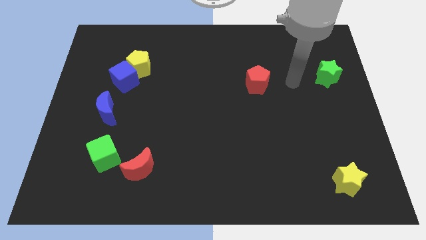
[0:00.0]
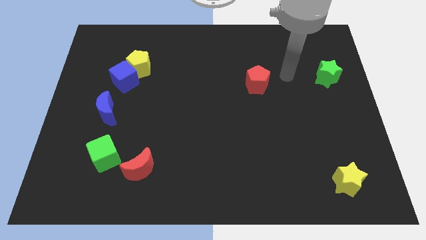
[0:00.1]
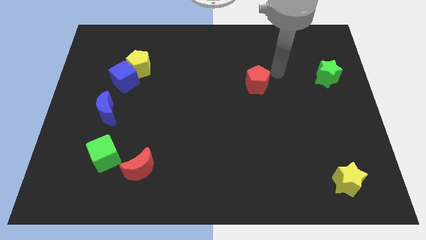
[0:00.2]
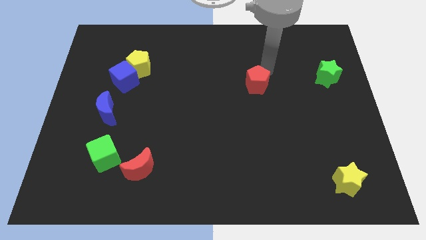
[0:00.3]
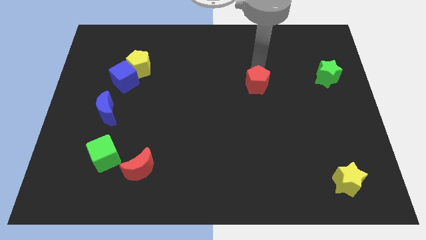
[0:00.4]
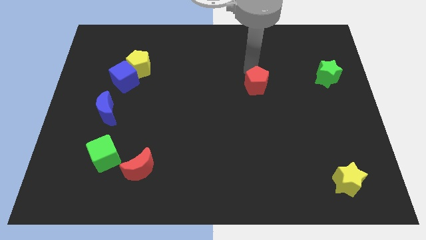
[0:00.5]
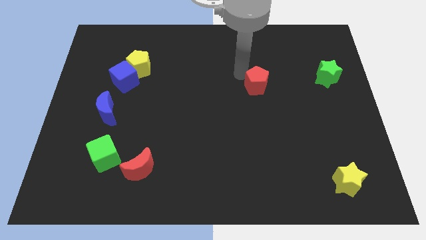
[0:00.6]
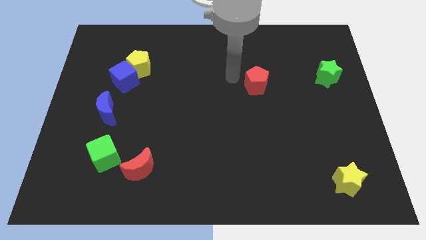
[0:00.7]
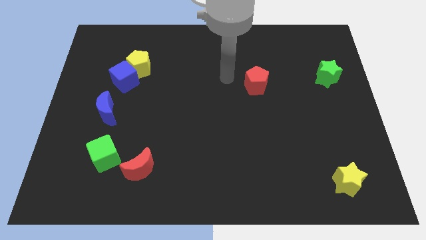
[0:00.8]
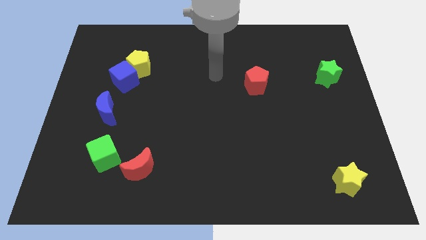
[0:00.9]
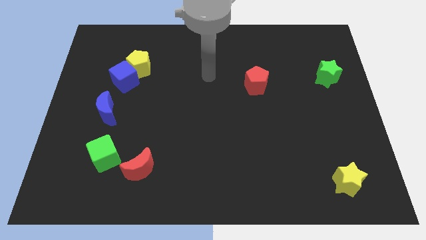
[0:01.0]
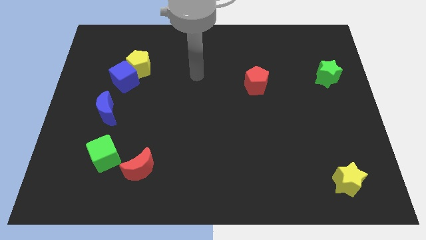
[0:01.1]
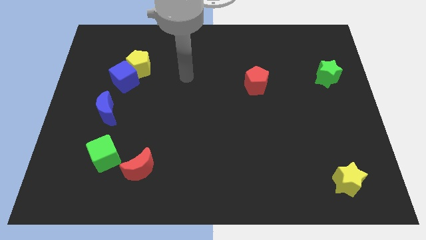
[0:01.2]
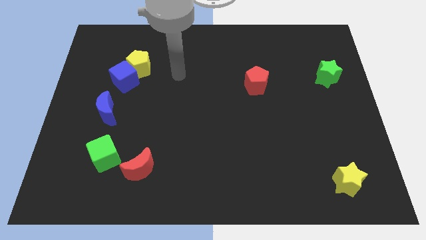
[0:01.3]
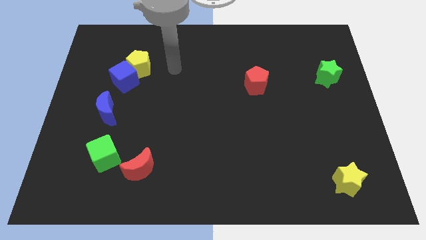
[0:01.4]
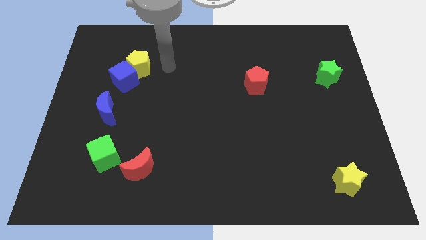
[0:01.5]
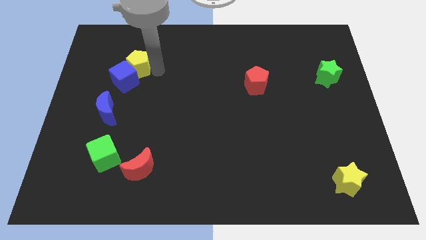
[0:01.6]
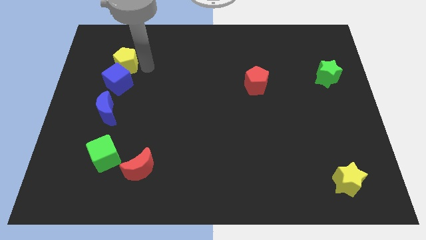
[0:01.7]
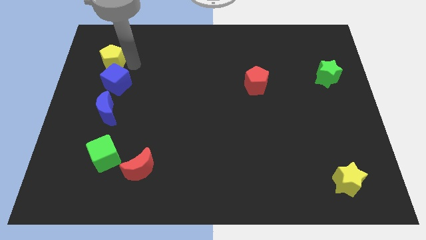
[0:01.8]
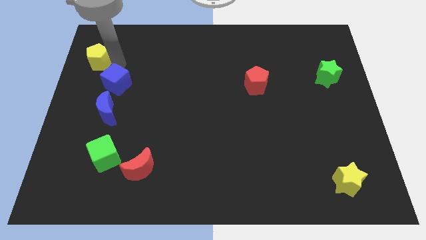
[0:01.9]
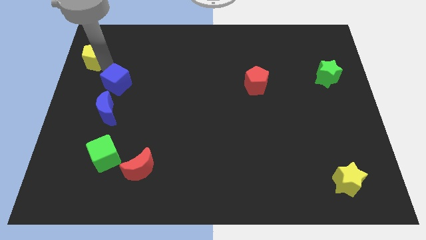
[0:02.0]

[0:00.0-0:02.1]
separate the blue cube from the yellow pentagon

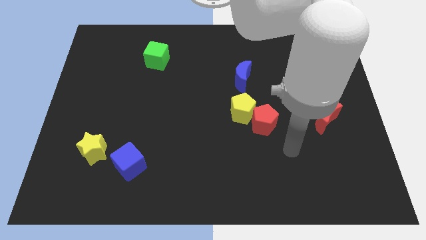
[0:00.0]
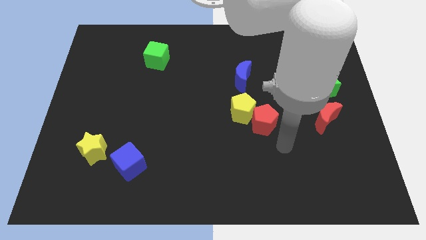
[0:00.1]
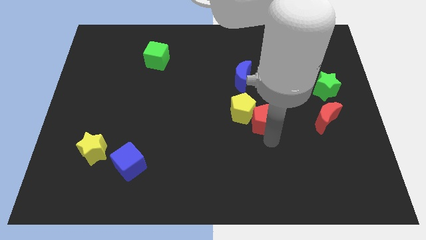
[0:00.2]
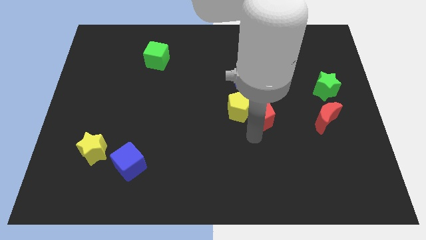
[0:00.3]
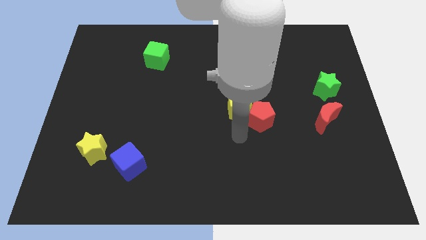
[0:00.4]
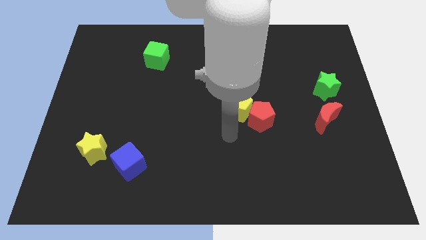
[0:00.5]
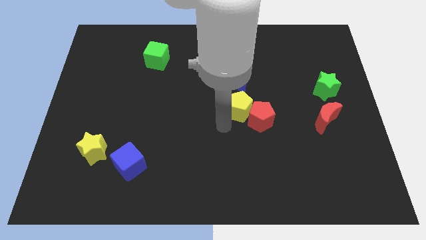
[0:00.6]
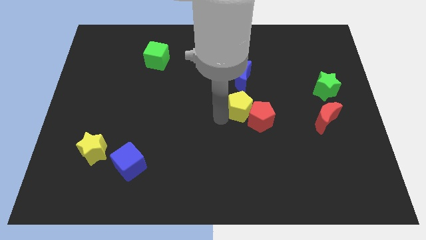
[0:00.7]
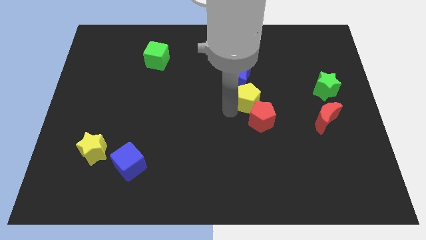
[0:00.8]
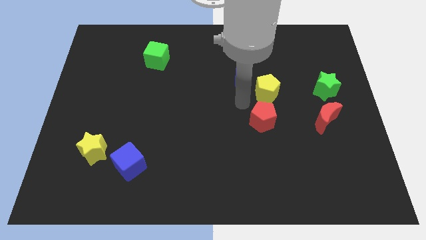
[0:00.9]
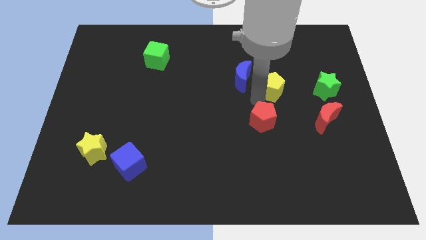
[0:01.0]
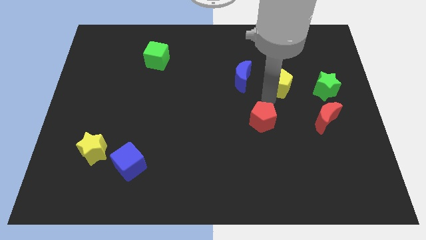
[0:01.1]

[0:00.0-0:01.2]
move the red pentagon away from the yellow pentagon

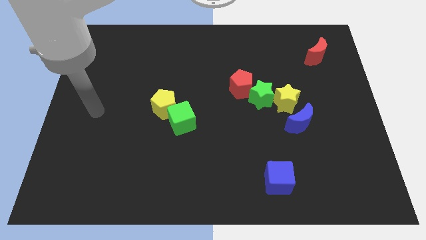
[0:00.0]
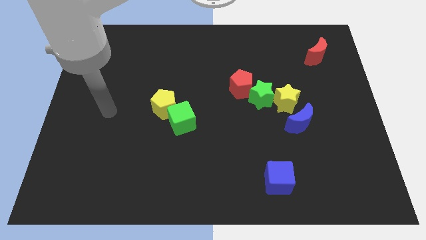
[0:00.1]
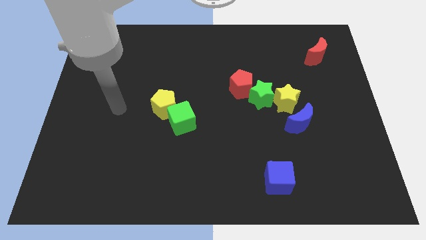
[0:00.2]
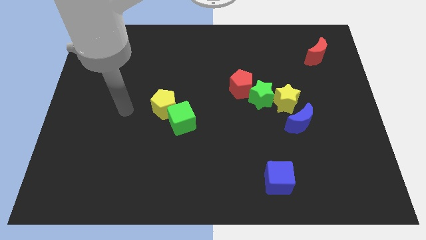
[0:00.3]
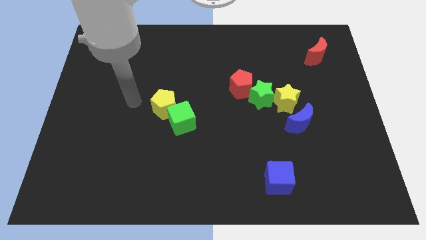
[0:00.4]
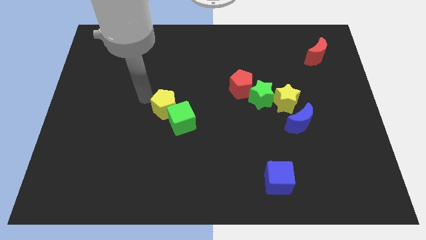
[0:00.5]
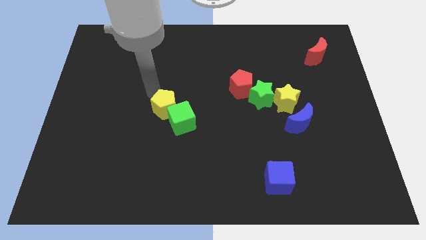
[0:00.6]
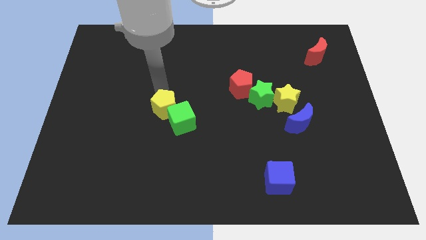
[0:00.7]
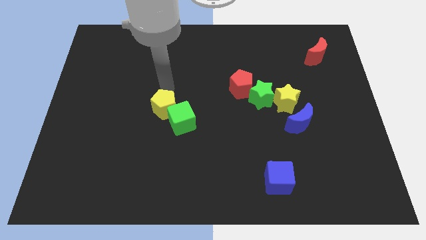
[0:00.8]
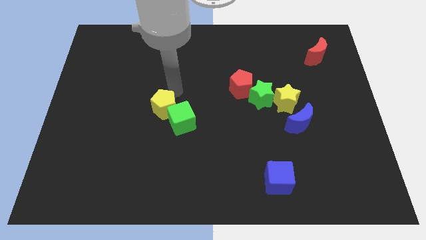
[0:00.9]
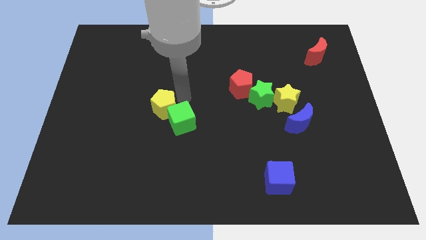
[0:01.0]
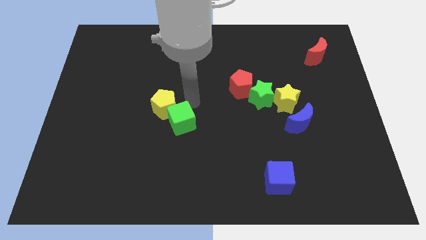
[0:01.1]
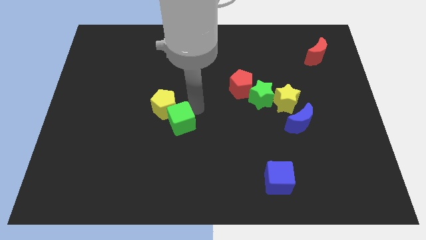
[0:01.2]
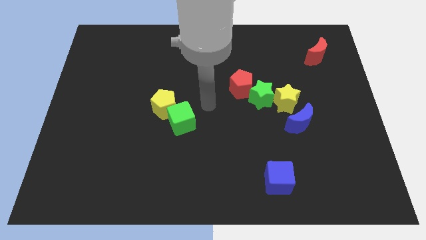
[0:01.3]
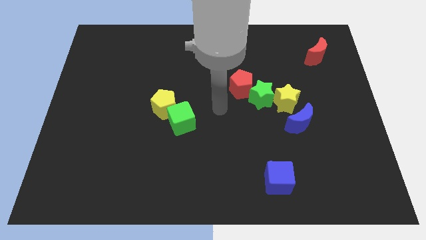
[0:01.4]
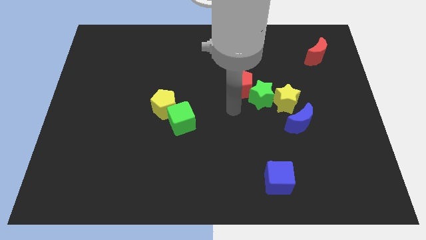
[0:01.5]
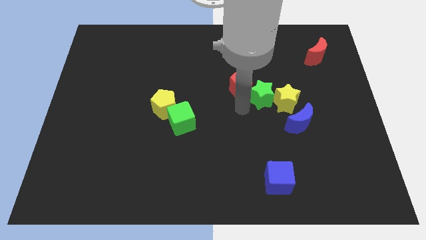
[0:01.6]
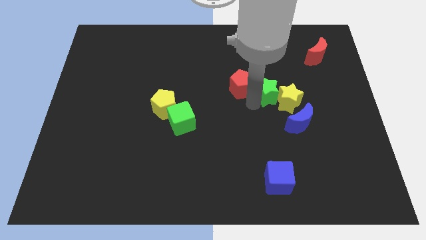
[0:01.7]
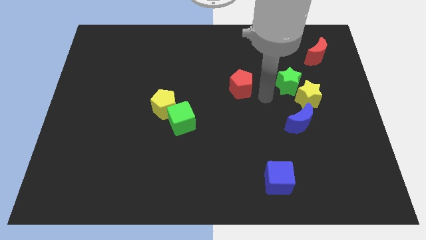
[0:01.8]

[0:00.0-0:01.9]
pull the red pentagon apart from the green star

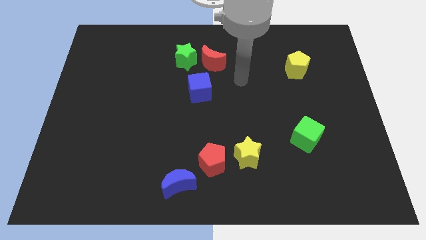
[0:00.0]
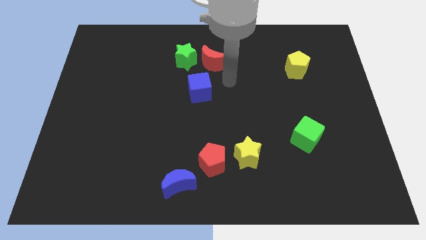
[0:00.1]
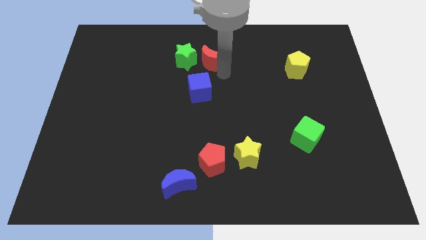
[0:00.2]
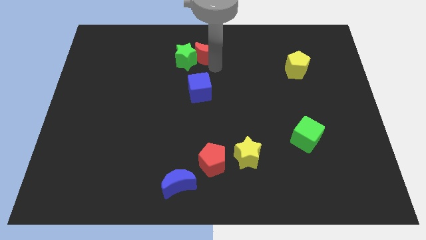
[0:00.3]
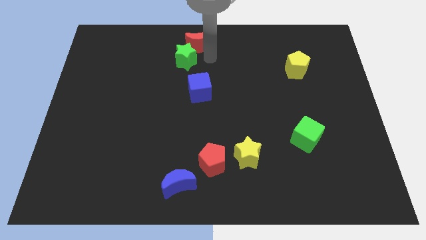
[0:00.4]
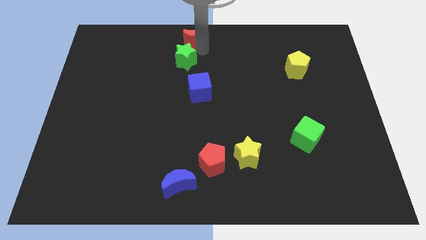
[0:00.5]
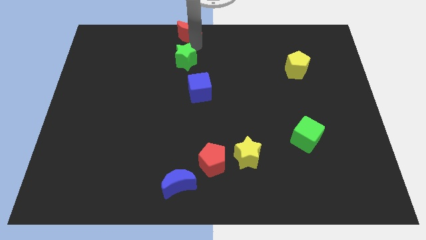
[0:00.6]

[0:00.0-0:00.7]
separate the green star from the red moon

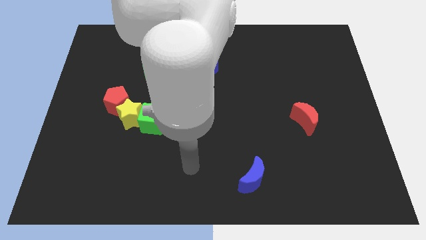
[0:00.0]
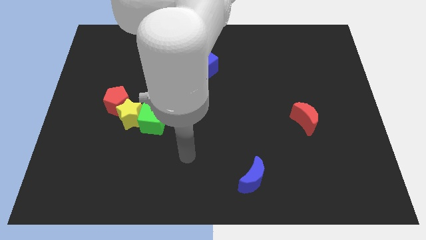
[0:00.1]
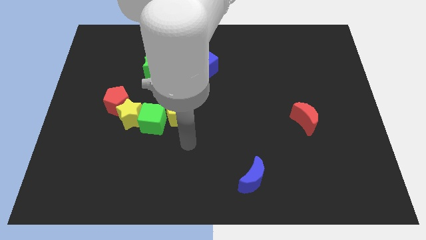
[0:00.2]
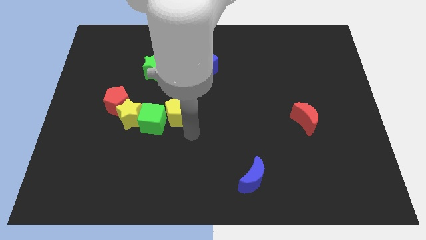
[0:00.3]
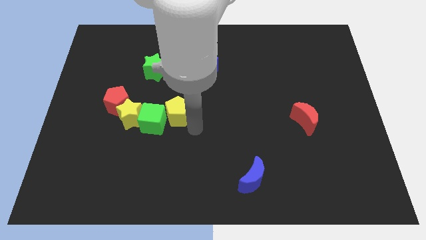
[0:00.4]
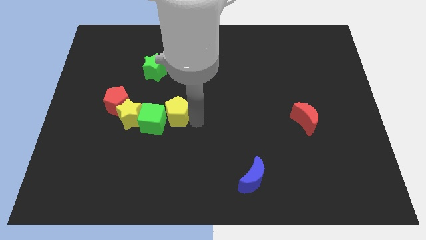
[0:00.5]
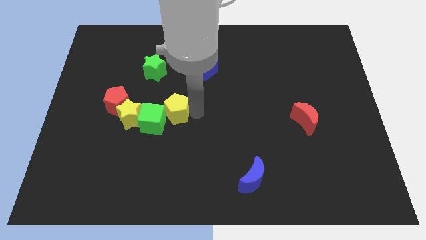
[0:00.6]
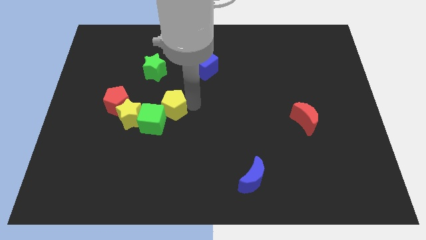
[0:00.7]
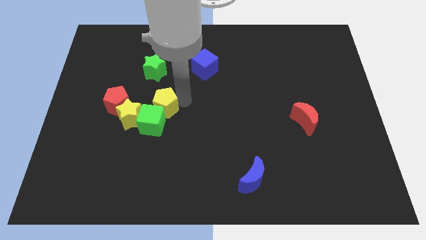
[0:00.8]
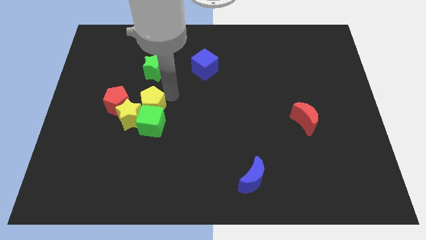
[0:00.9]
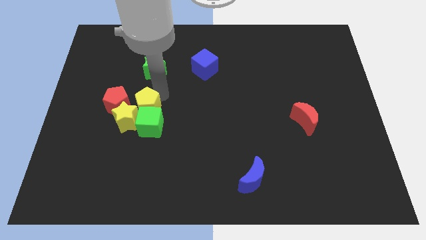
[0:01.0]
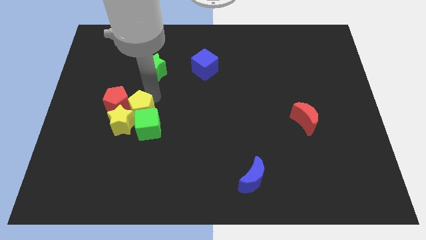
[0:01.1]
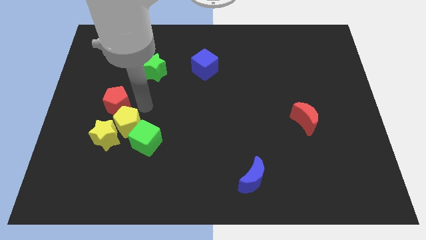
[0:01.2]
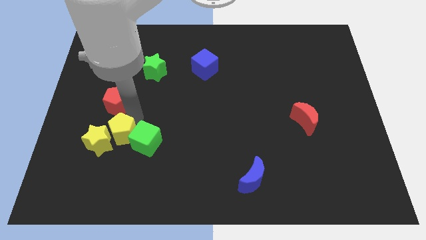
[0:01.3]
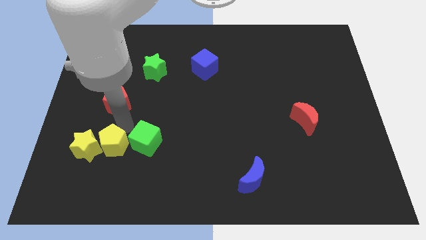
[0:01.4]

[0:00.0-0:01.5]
pull the yellow star apart from the green cube and red pentagon

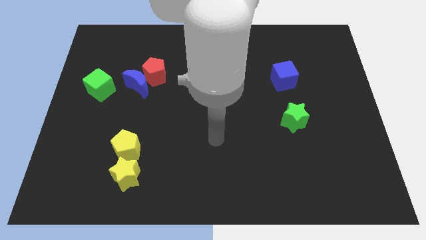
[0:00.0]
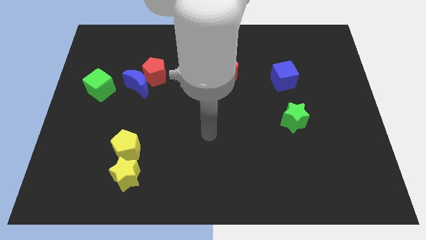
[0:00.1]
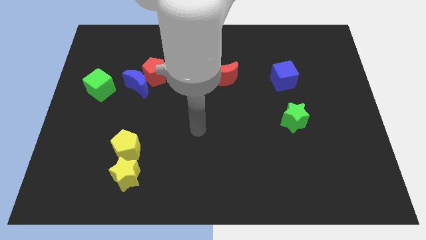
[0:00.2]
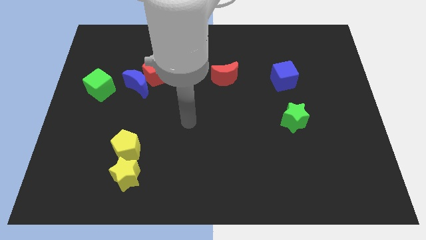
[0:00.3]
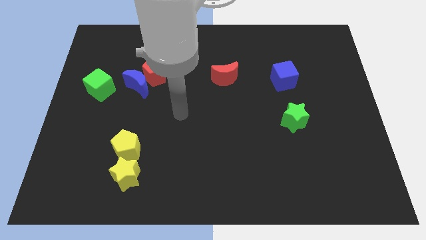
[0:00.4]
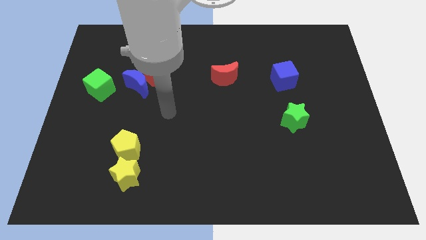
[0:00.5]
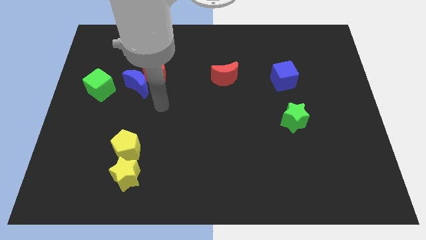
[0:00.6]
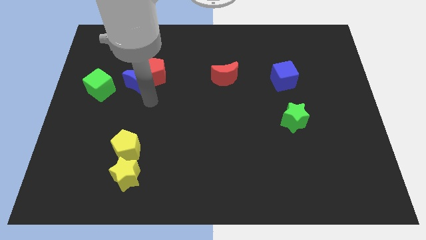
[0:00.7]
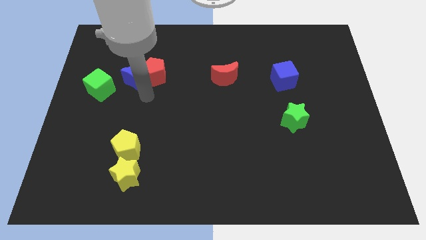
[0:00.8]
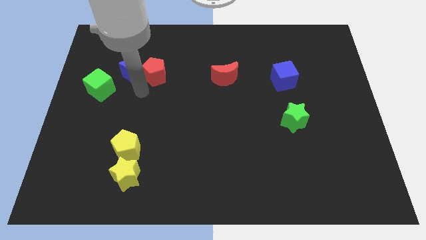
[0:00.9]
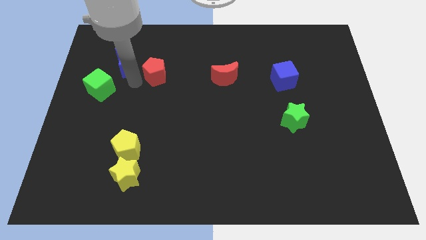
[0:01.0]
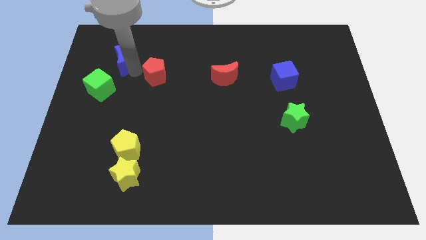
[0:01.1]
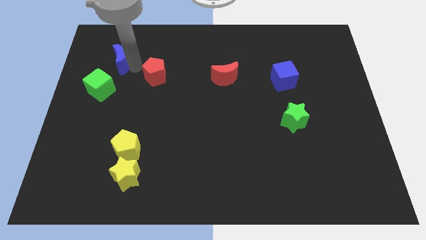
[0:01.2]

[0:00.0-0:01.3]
move the red pentagon away from the blue moon

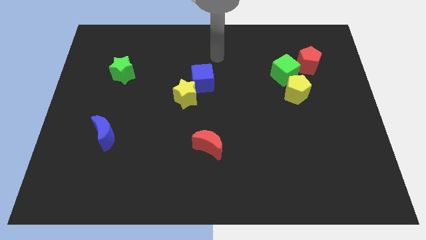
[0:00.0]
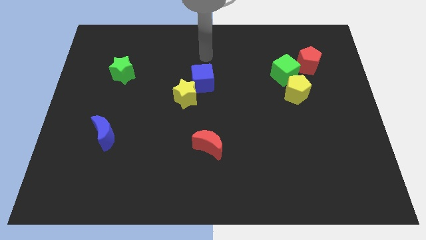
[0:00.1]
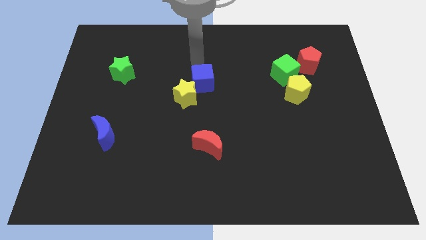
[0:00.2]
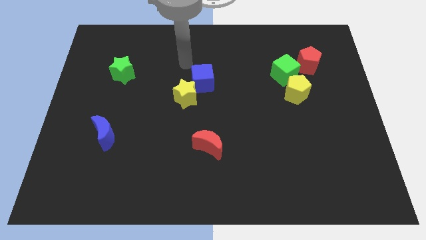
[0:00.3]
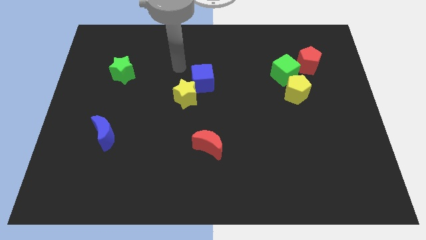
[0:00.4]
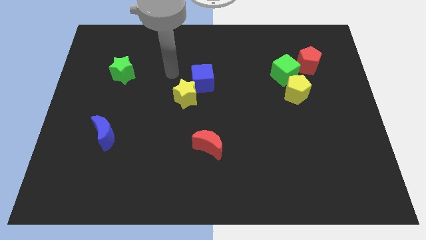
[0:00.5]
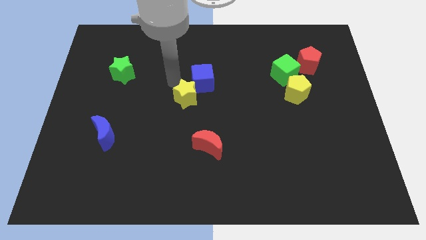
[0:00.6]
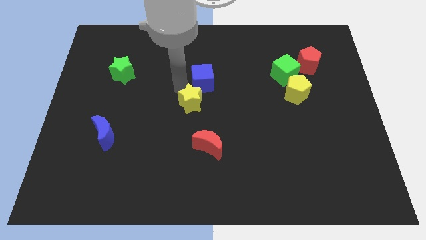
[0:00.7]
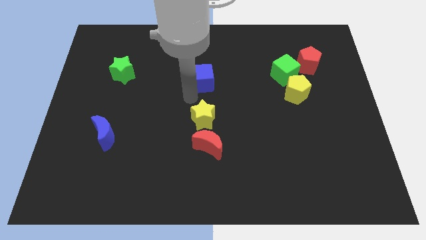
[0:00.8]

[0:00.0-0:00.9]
move the blue cube away from the yellow star
